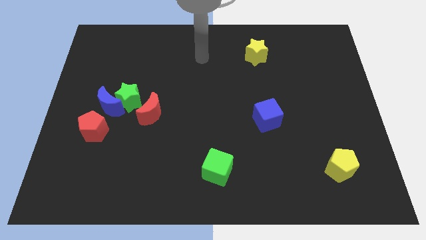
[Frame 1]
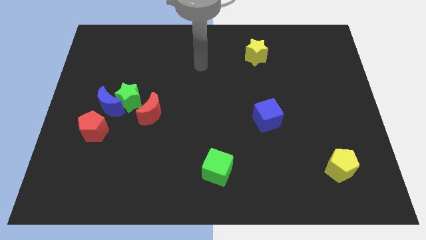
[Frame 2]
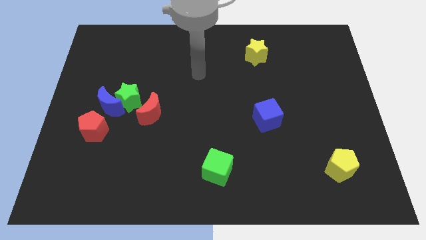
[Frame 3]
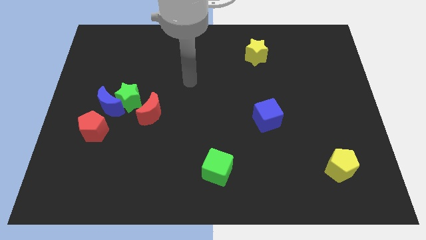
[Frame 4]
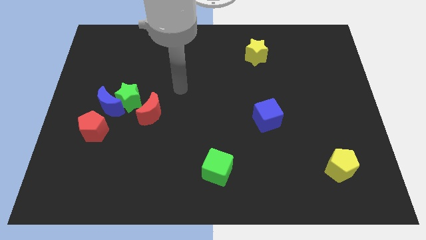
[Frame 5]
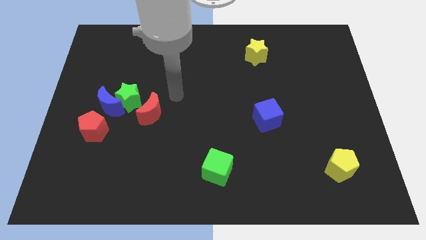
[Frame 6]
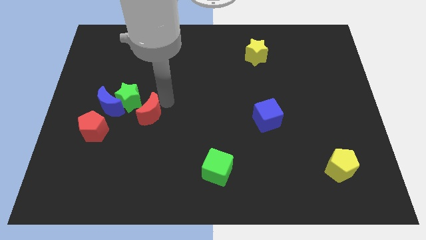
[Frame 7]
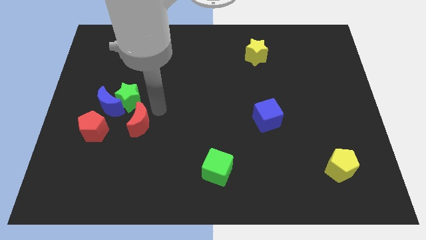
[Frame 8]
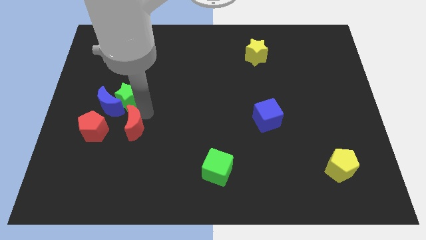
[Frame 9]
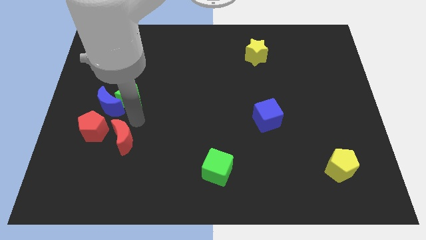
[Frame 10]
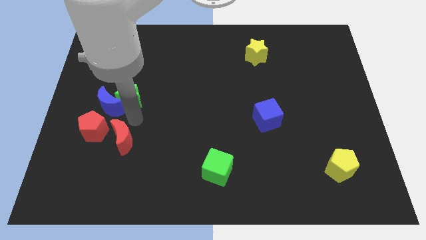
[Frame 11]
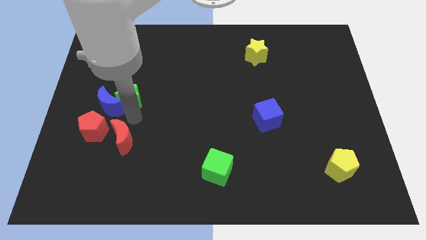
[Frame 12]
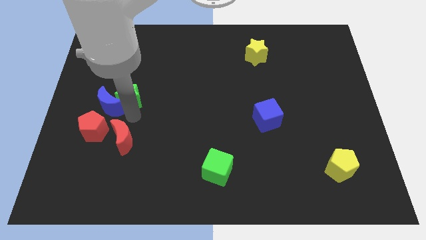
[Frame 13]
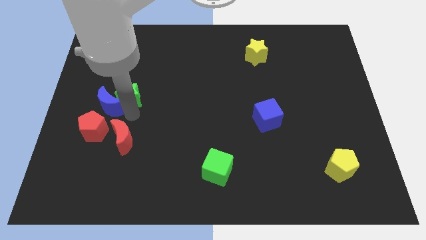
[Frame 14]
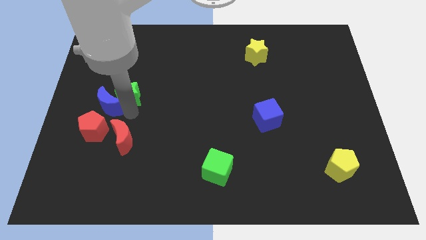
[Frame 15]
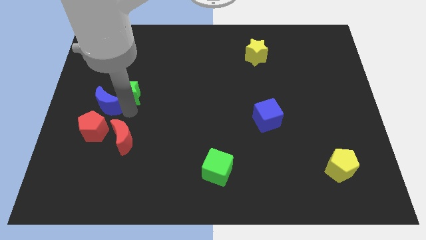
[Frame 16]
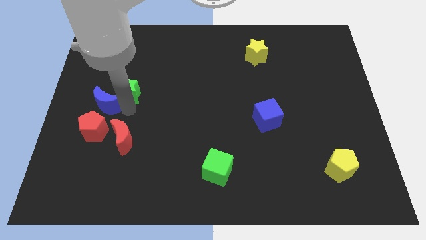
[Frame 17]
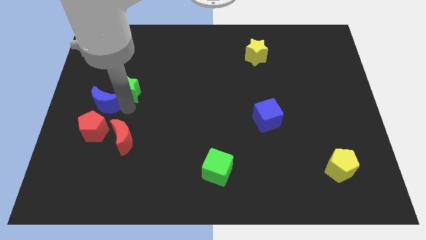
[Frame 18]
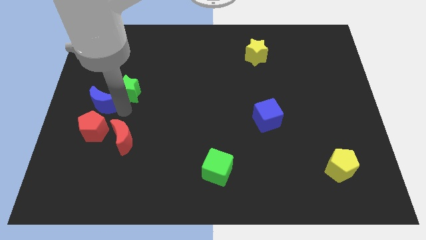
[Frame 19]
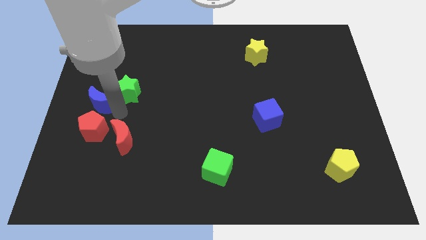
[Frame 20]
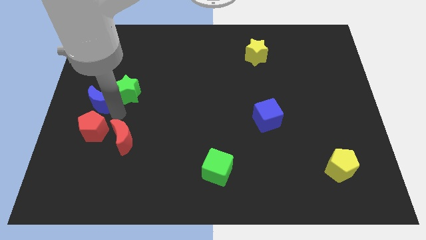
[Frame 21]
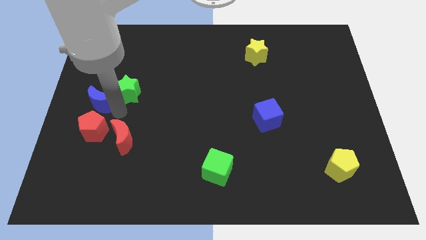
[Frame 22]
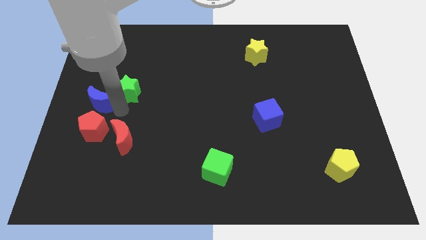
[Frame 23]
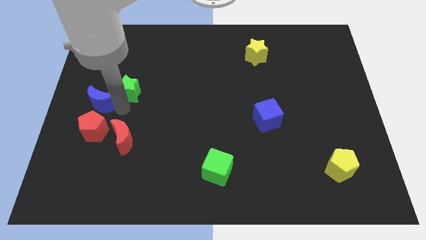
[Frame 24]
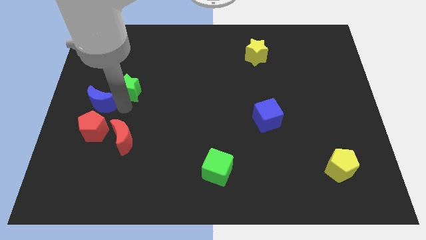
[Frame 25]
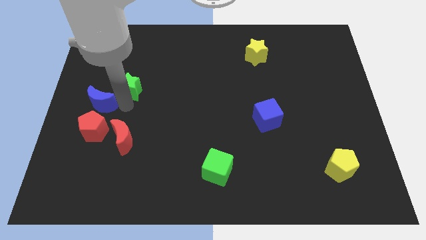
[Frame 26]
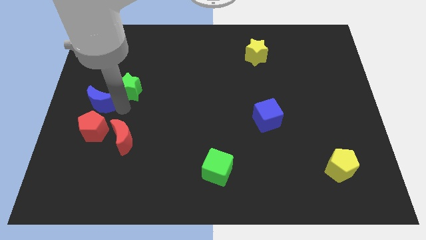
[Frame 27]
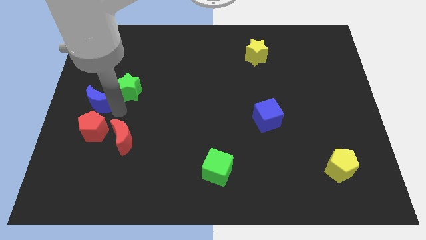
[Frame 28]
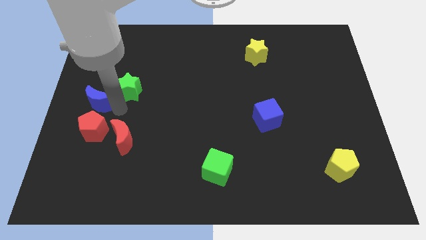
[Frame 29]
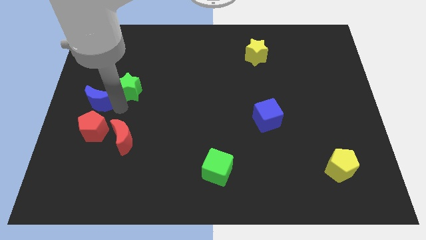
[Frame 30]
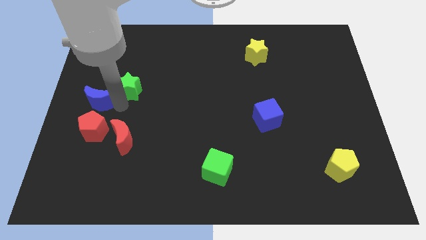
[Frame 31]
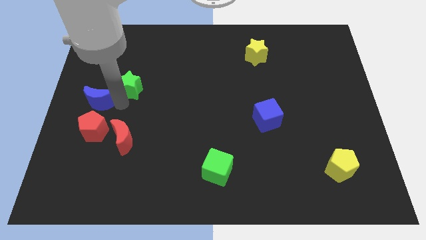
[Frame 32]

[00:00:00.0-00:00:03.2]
move the green star away from the blue moon and red moon

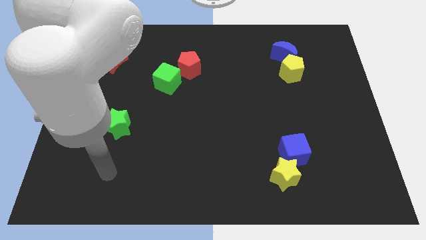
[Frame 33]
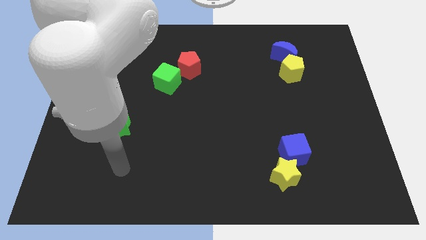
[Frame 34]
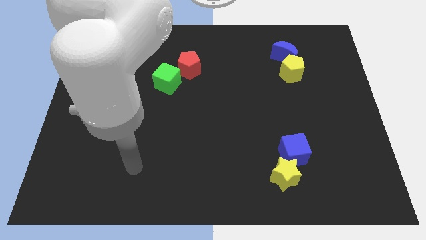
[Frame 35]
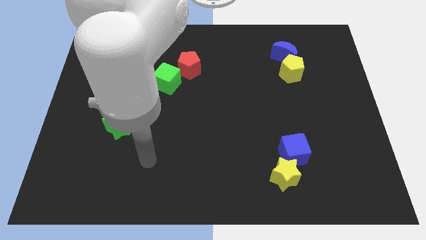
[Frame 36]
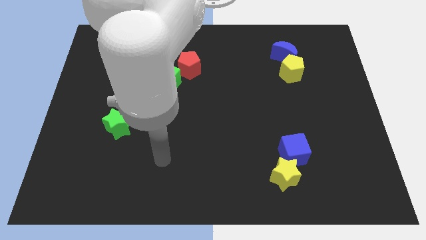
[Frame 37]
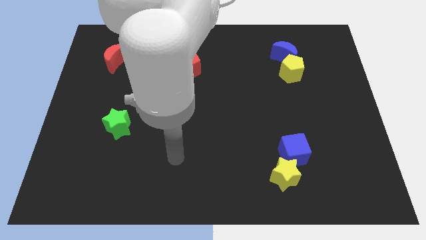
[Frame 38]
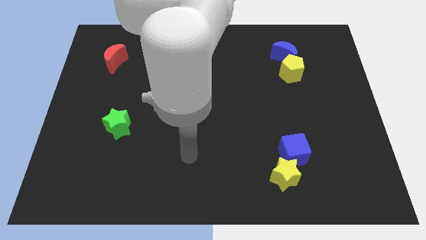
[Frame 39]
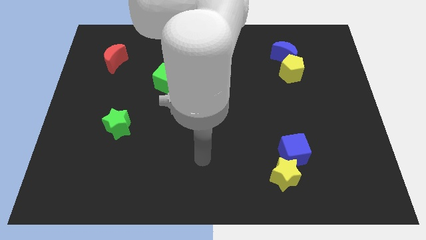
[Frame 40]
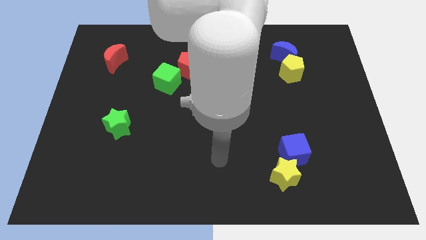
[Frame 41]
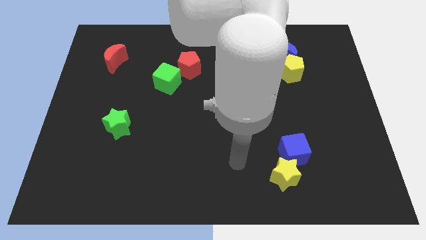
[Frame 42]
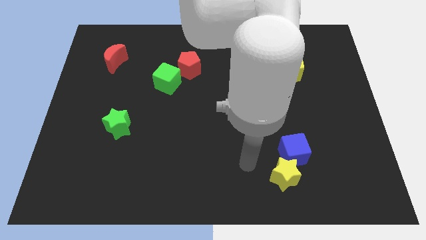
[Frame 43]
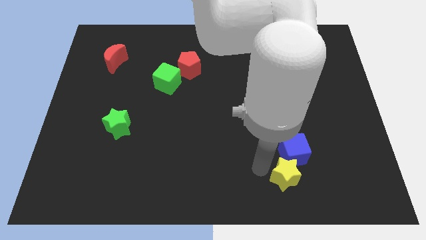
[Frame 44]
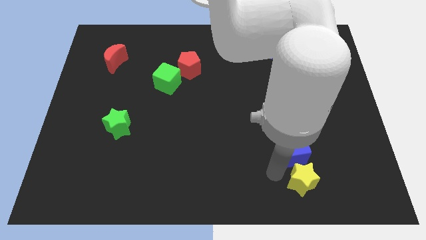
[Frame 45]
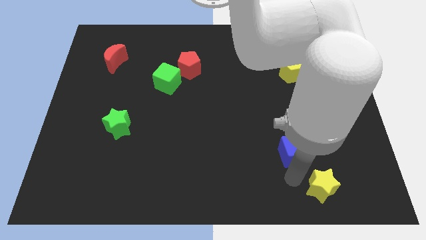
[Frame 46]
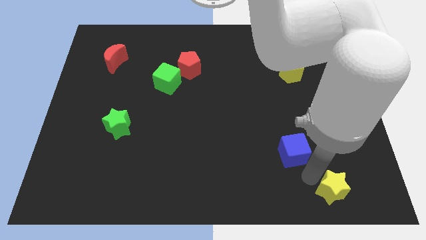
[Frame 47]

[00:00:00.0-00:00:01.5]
move the blue cube away from the yellow star

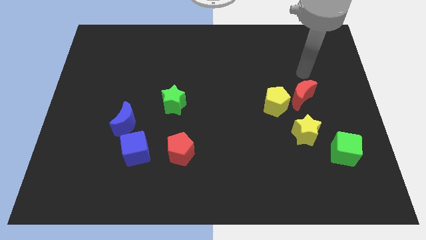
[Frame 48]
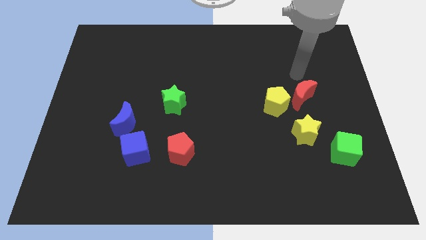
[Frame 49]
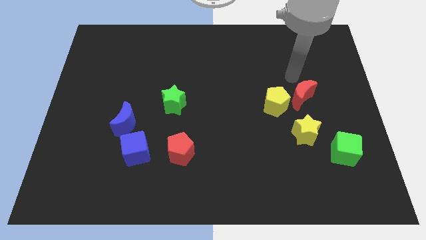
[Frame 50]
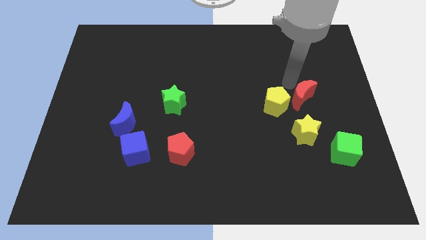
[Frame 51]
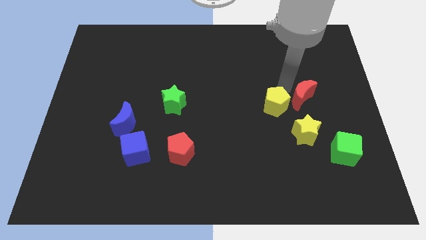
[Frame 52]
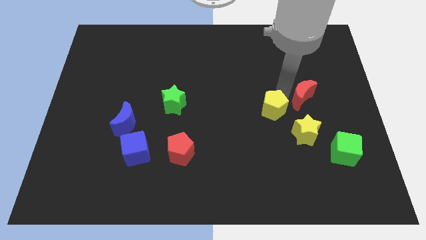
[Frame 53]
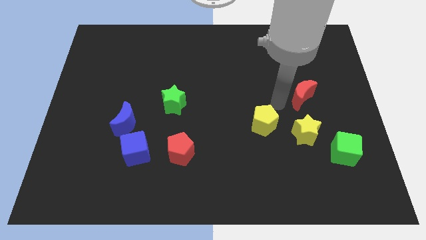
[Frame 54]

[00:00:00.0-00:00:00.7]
separate the red moon from the yellow pentagon

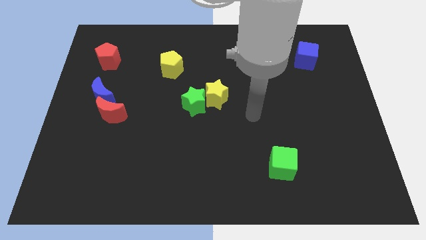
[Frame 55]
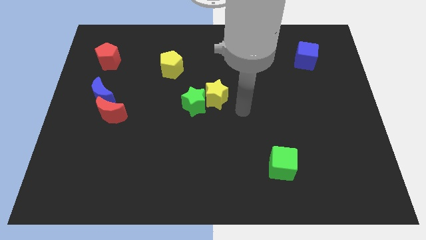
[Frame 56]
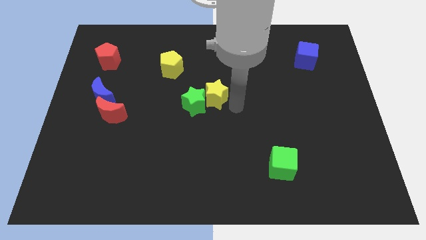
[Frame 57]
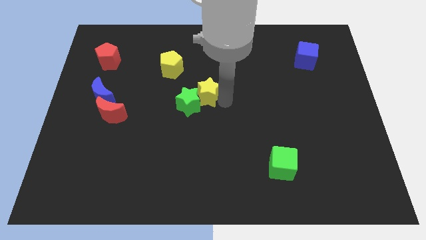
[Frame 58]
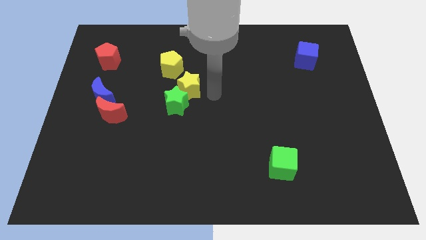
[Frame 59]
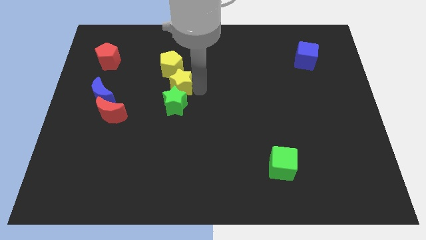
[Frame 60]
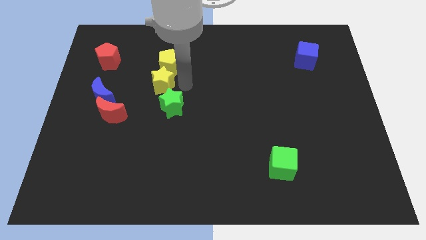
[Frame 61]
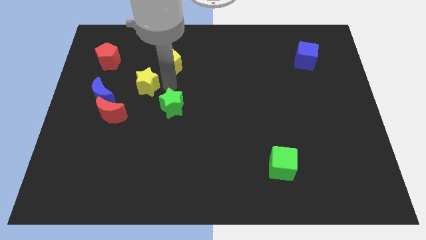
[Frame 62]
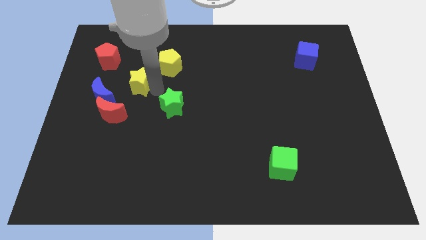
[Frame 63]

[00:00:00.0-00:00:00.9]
pull the green star apart from the yellow star

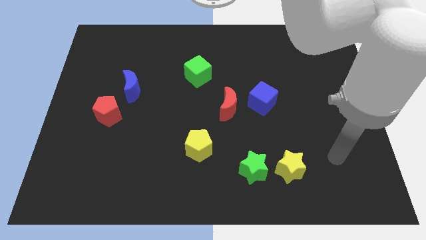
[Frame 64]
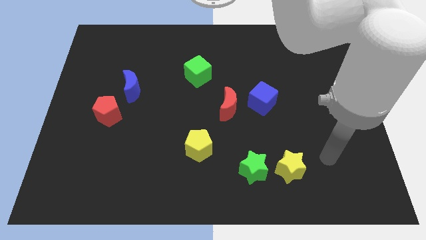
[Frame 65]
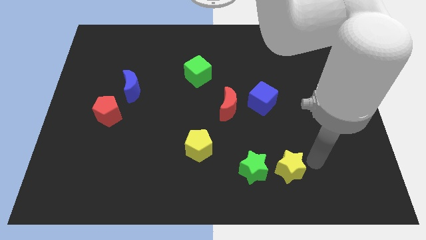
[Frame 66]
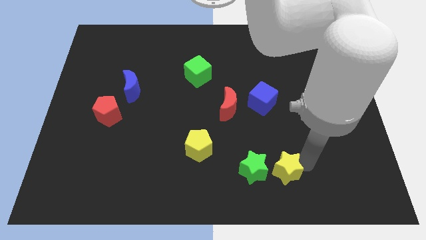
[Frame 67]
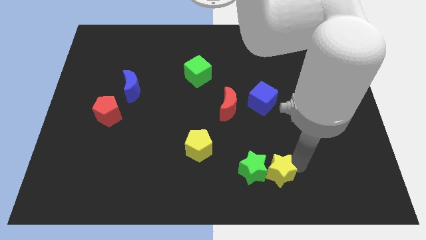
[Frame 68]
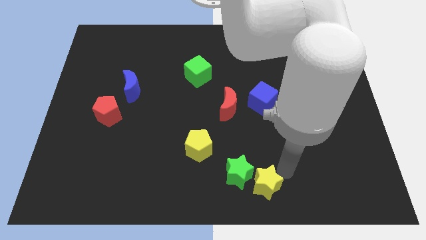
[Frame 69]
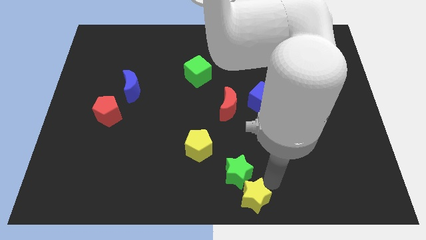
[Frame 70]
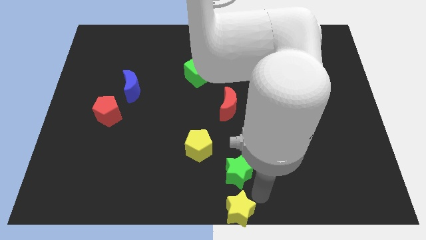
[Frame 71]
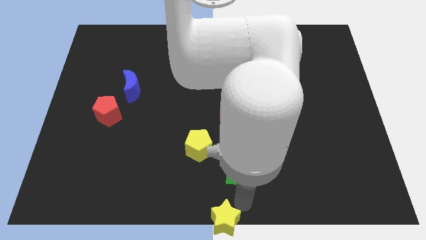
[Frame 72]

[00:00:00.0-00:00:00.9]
separate the green star from the yellow star

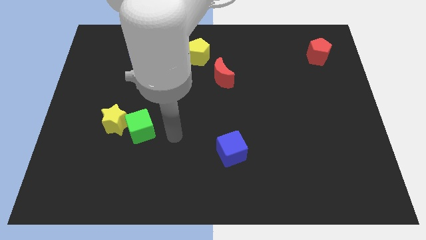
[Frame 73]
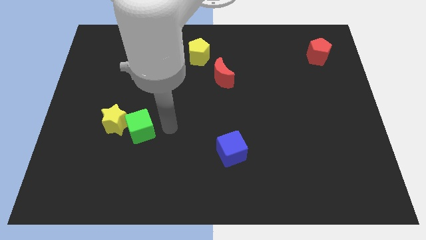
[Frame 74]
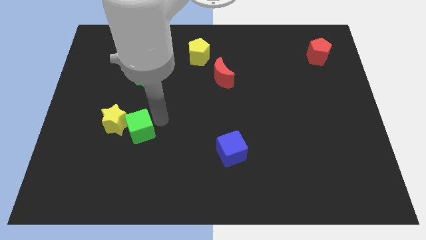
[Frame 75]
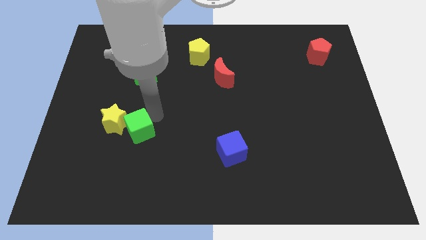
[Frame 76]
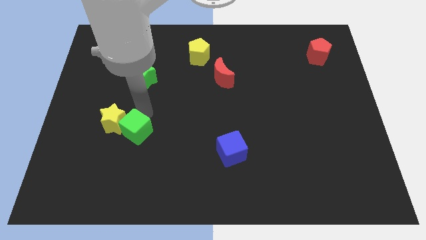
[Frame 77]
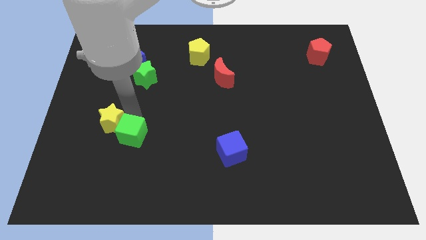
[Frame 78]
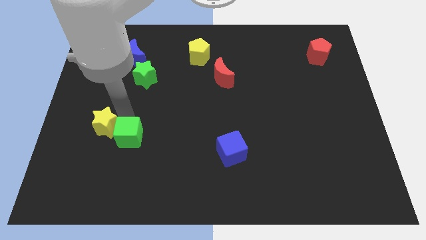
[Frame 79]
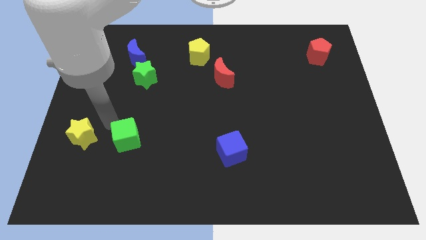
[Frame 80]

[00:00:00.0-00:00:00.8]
move the green cube away from the yellow star

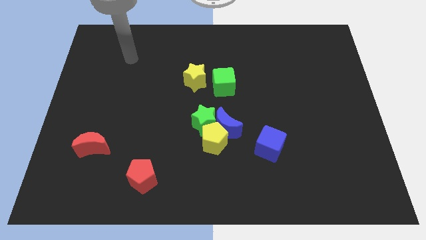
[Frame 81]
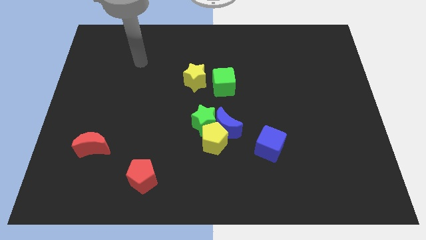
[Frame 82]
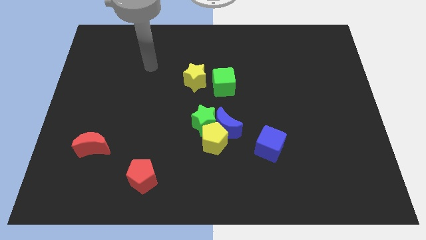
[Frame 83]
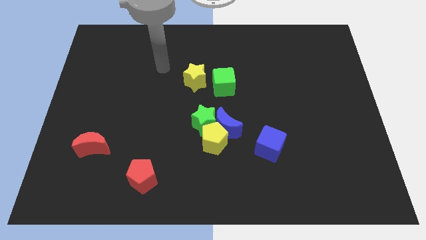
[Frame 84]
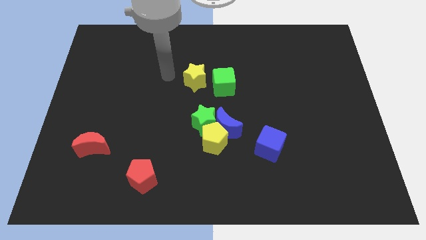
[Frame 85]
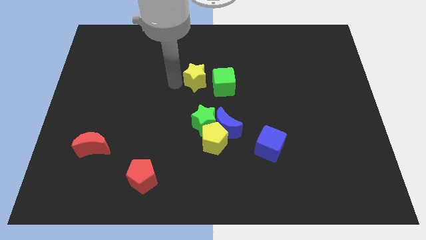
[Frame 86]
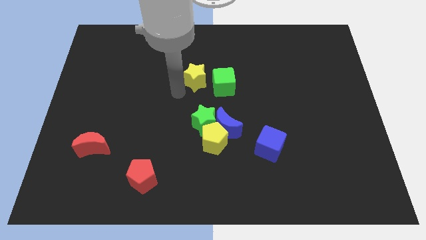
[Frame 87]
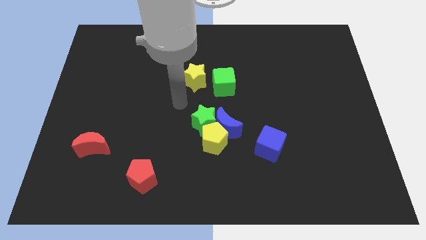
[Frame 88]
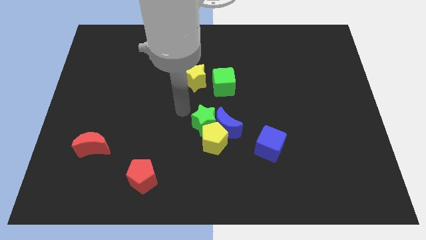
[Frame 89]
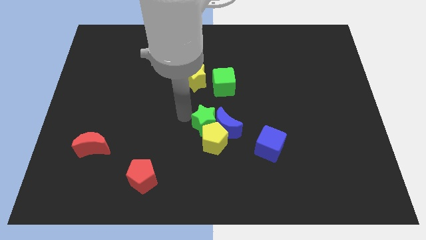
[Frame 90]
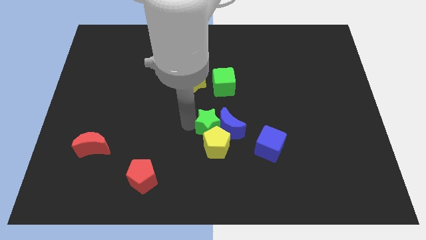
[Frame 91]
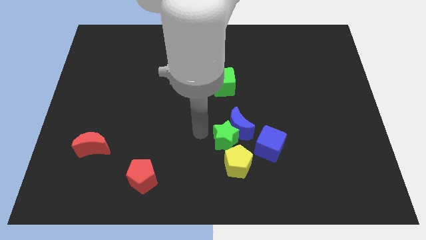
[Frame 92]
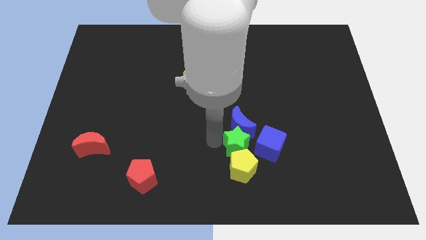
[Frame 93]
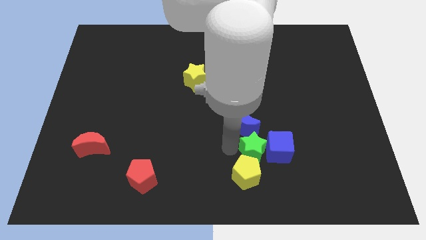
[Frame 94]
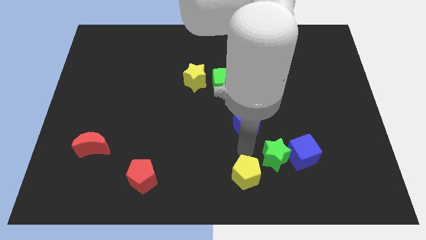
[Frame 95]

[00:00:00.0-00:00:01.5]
move the blue moon away from the yellow pentagon and green star
